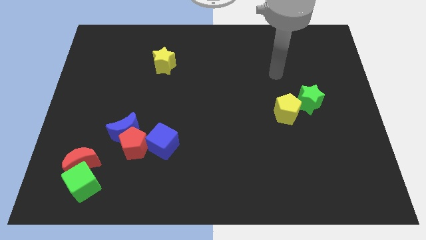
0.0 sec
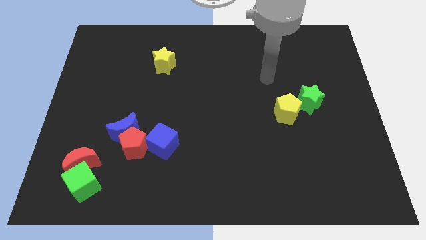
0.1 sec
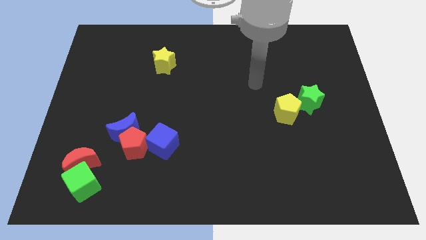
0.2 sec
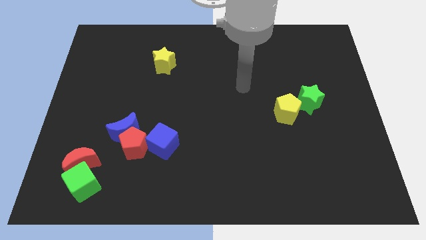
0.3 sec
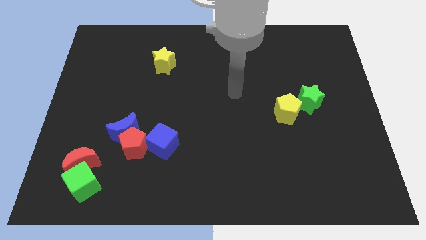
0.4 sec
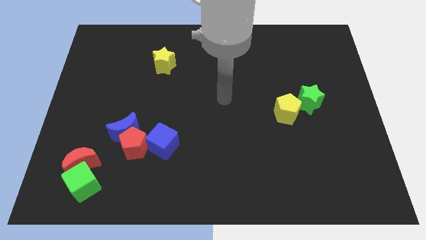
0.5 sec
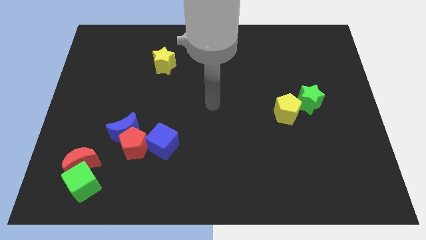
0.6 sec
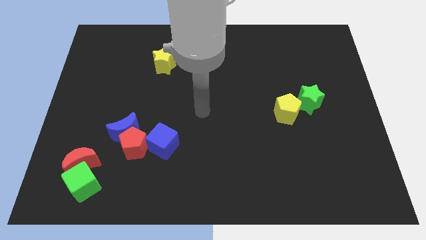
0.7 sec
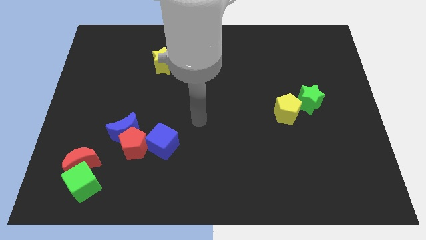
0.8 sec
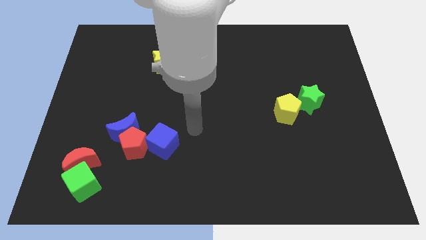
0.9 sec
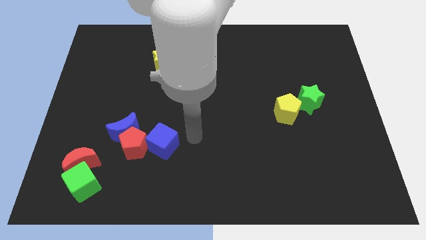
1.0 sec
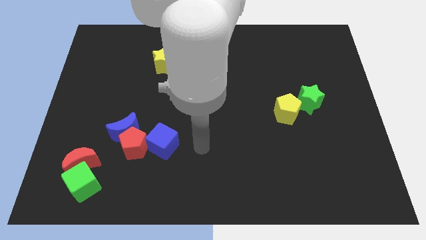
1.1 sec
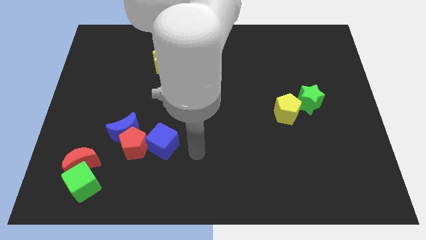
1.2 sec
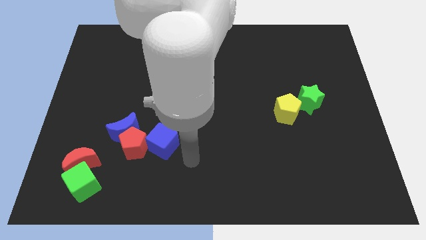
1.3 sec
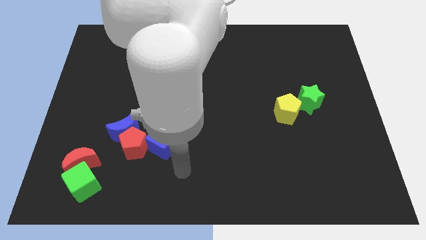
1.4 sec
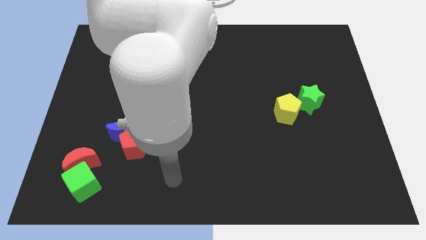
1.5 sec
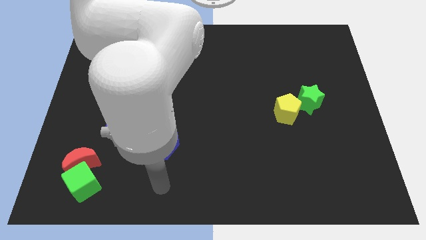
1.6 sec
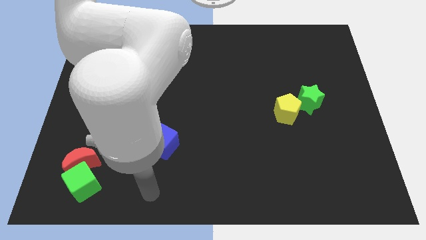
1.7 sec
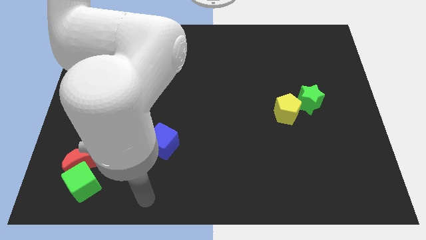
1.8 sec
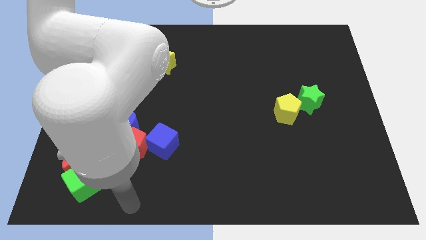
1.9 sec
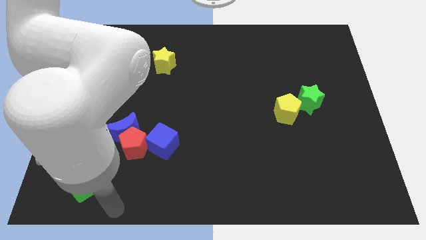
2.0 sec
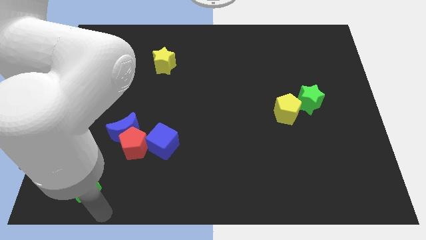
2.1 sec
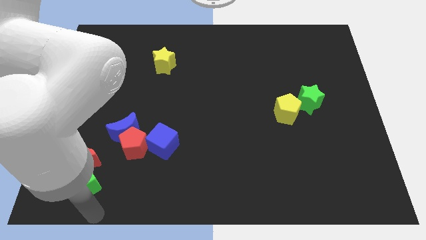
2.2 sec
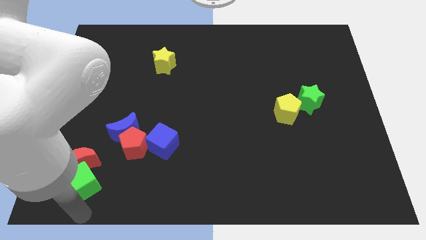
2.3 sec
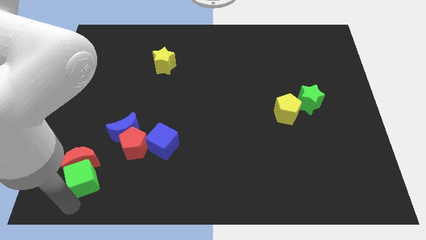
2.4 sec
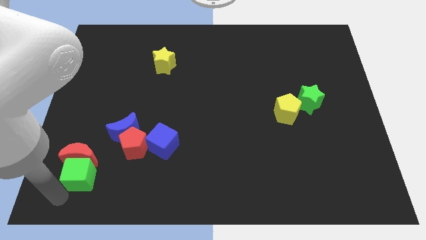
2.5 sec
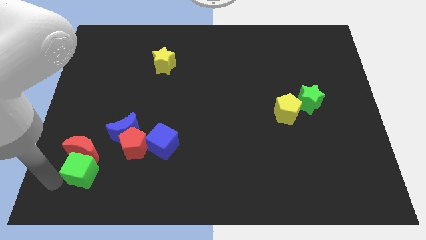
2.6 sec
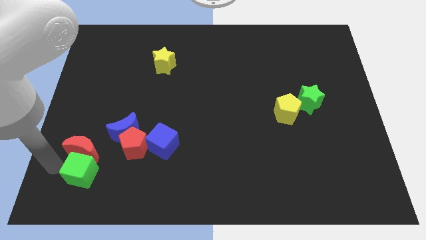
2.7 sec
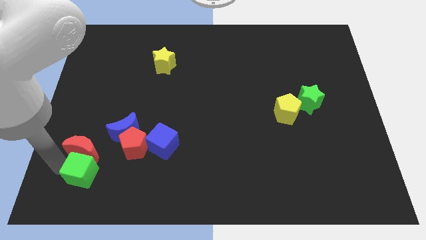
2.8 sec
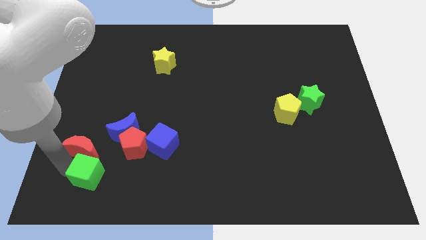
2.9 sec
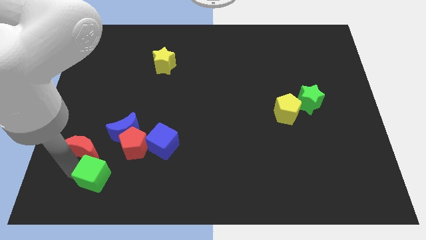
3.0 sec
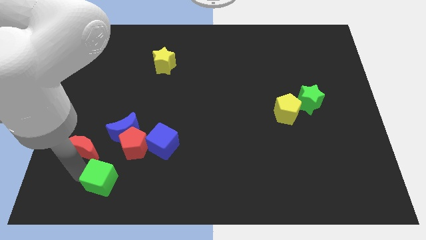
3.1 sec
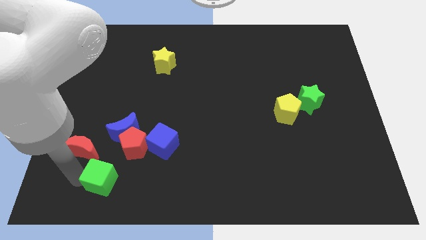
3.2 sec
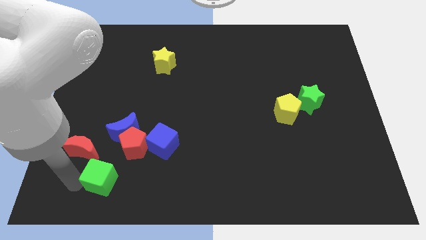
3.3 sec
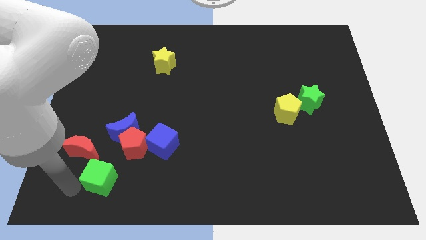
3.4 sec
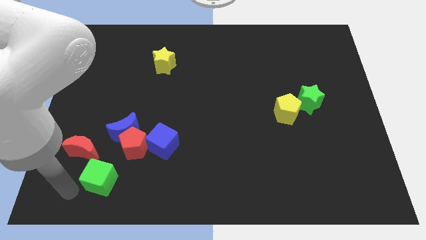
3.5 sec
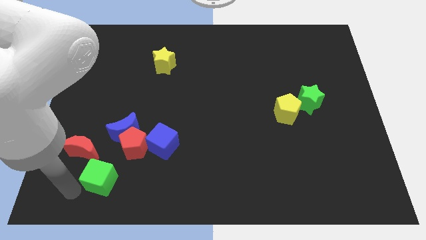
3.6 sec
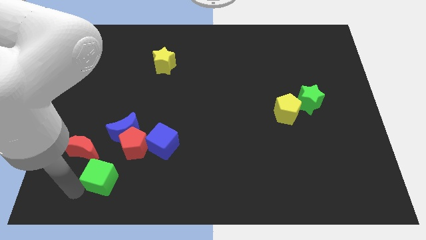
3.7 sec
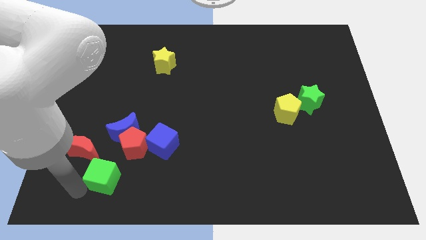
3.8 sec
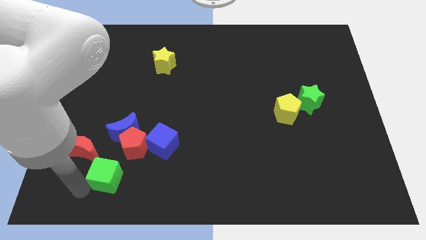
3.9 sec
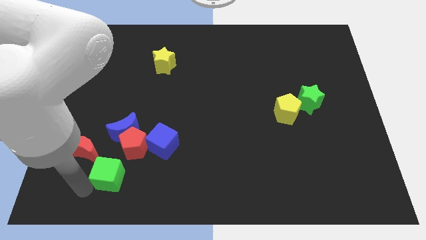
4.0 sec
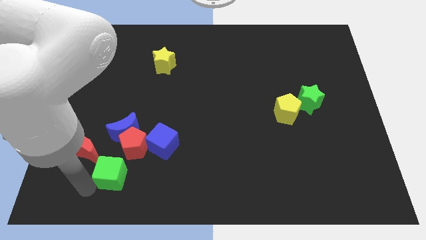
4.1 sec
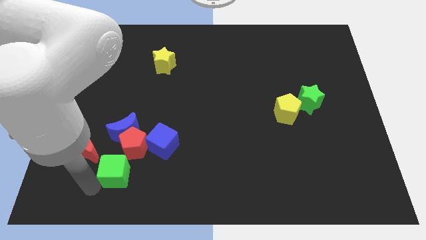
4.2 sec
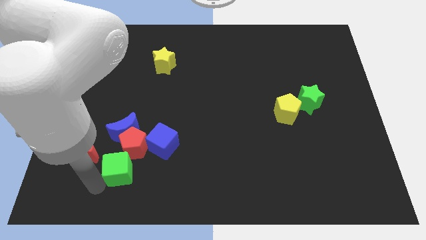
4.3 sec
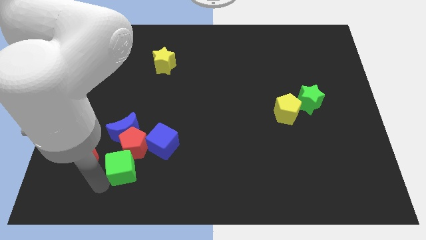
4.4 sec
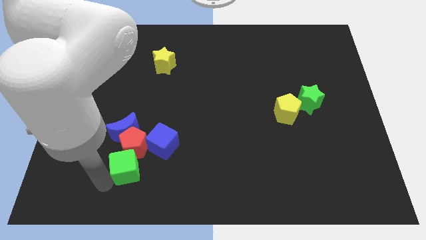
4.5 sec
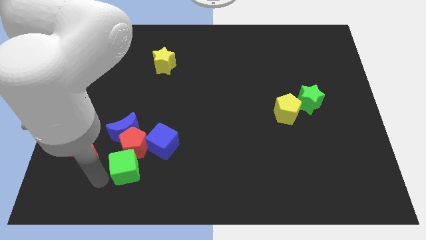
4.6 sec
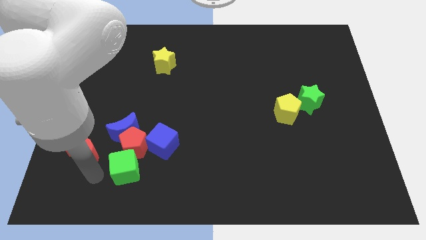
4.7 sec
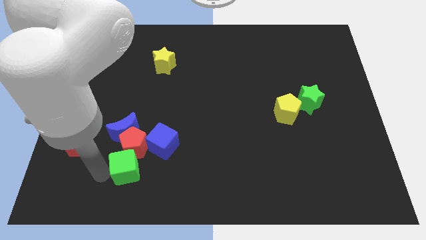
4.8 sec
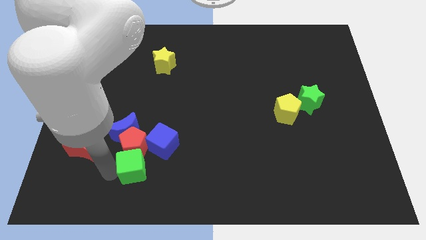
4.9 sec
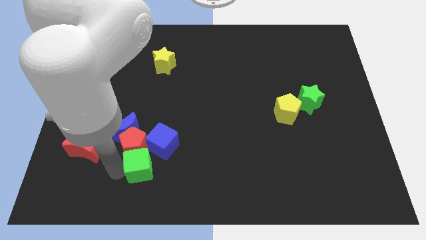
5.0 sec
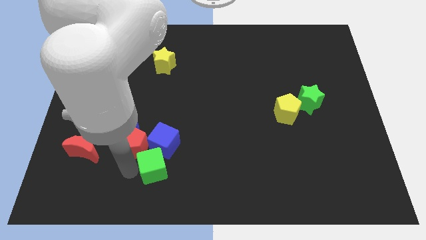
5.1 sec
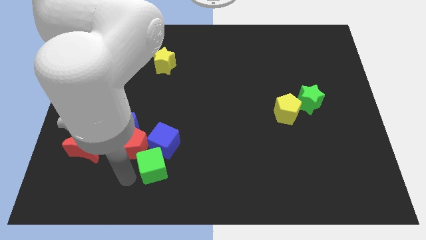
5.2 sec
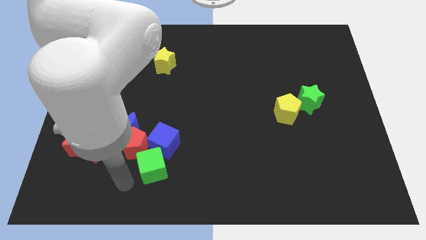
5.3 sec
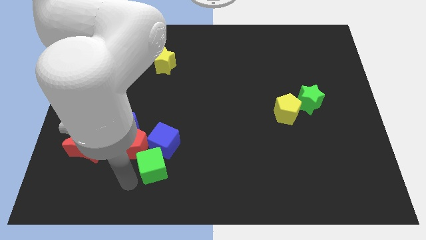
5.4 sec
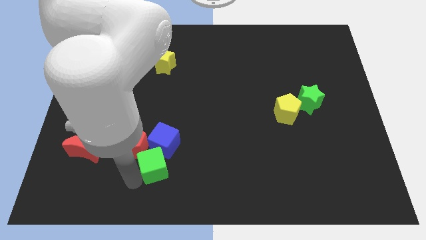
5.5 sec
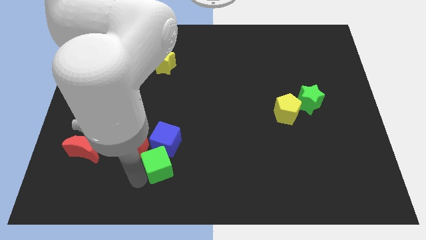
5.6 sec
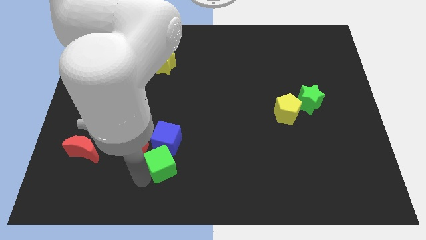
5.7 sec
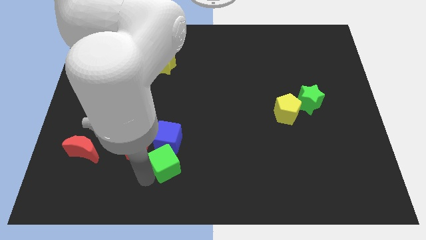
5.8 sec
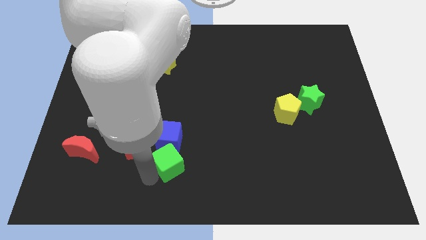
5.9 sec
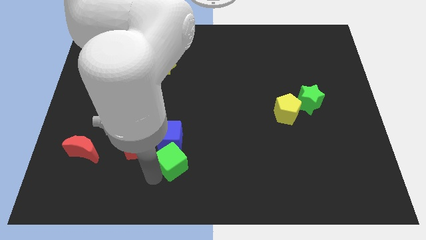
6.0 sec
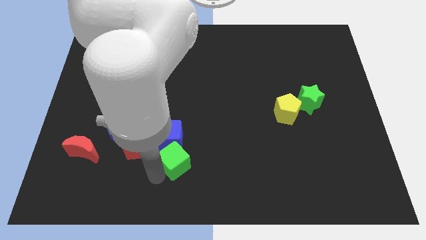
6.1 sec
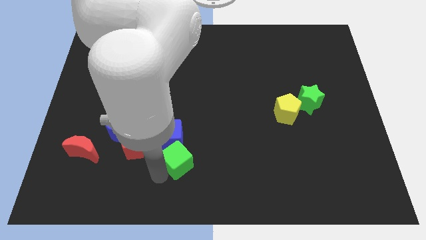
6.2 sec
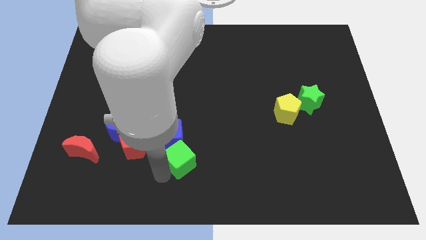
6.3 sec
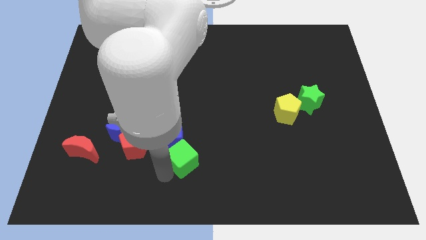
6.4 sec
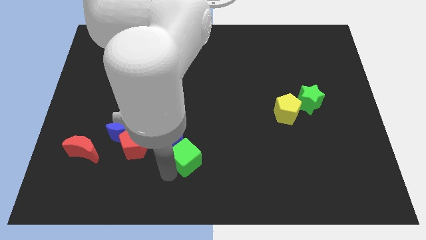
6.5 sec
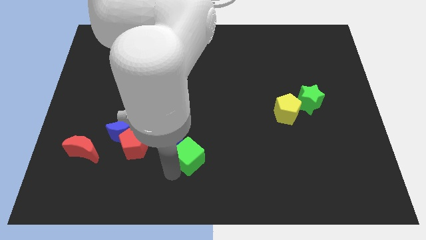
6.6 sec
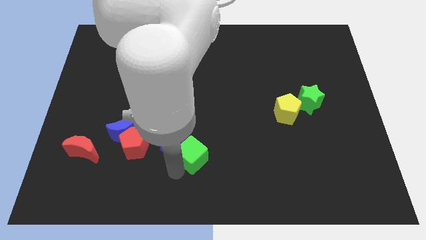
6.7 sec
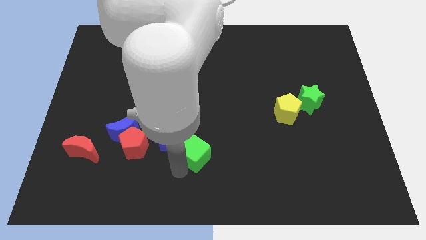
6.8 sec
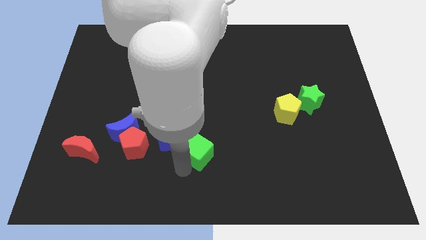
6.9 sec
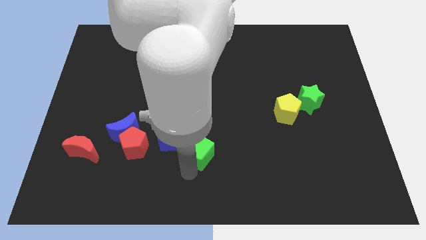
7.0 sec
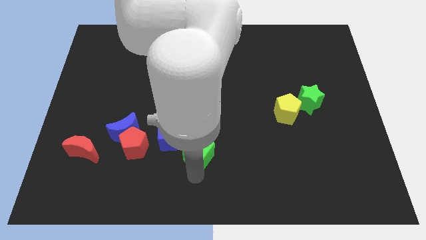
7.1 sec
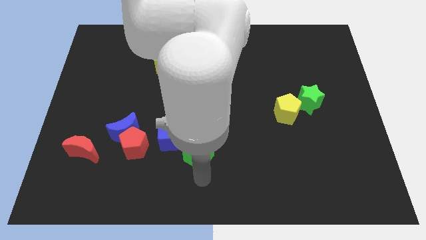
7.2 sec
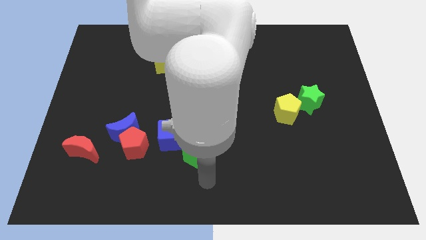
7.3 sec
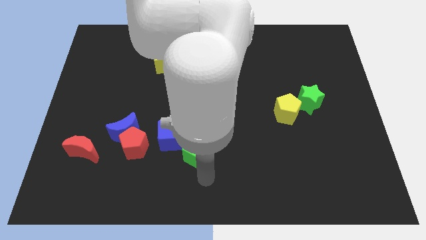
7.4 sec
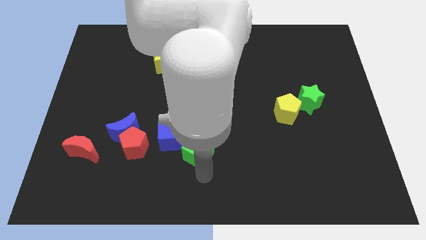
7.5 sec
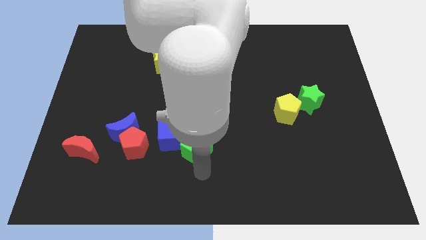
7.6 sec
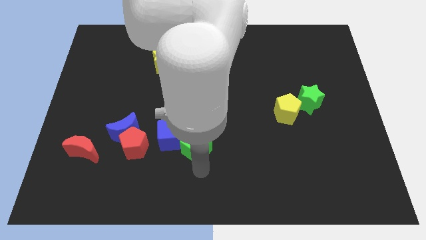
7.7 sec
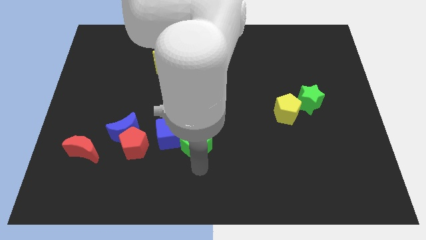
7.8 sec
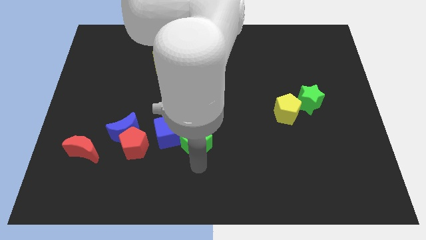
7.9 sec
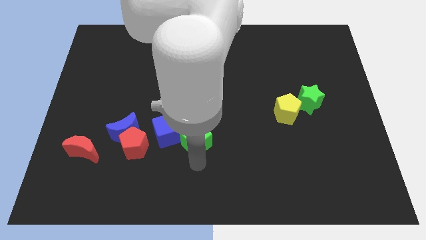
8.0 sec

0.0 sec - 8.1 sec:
slide the green cube upwards and right

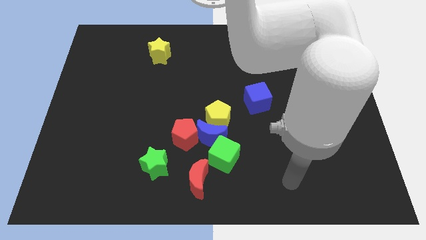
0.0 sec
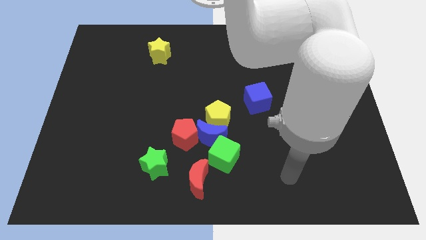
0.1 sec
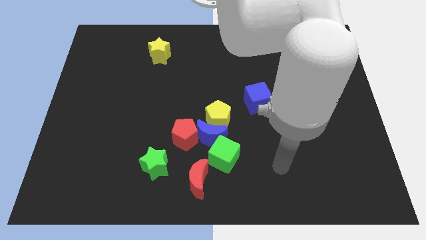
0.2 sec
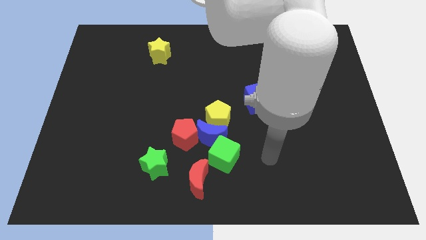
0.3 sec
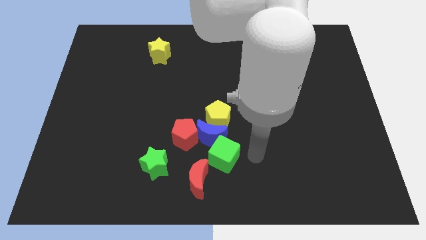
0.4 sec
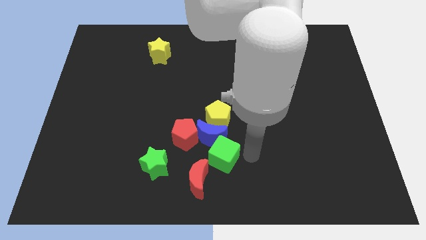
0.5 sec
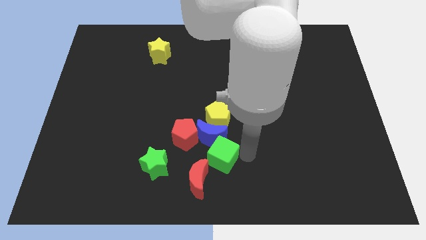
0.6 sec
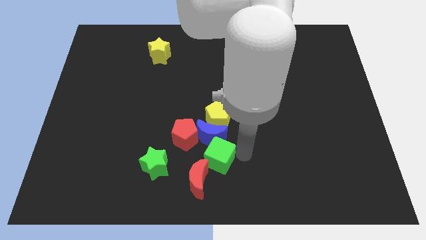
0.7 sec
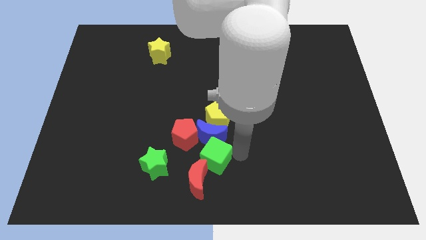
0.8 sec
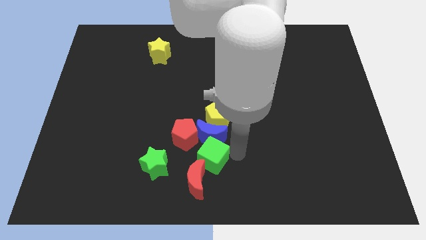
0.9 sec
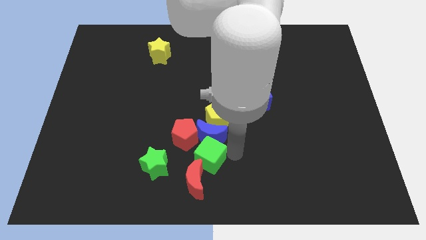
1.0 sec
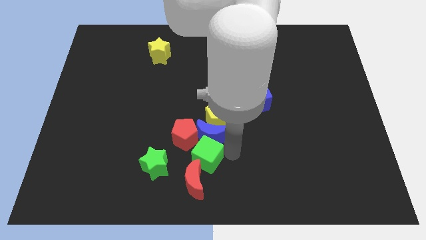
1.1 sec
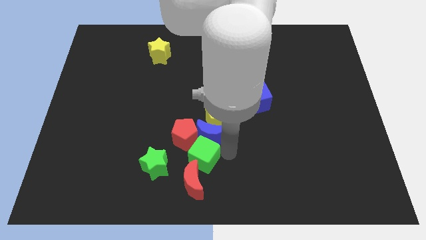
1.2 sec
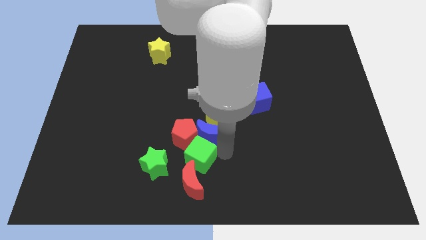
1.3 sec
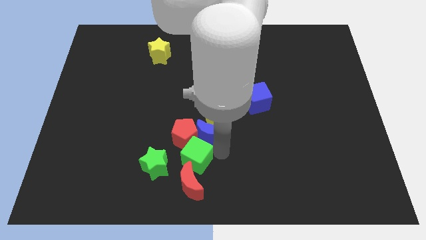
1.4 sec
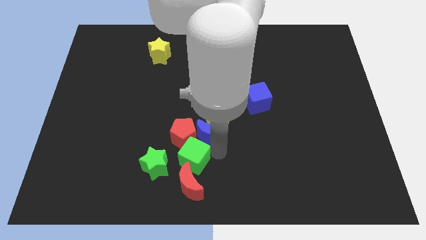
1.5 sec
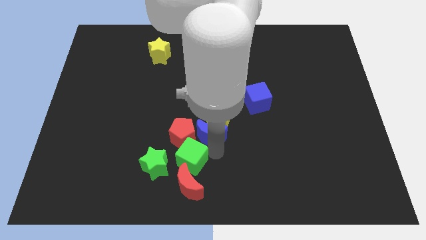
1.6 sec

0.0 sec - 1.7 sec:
push the green cube left a bit
